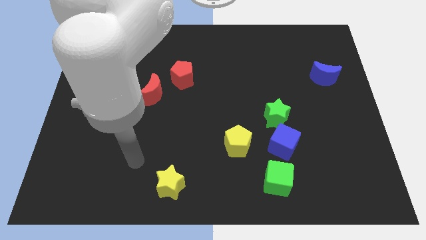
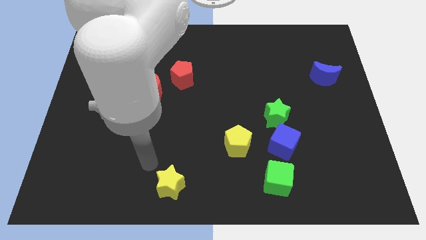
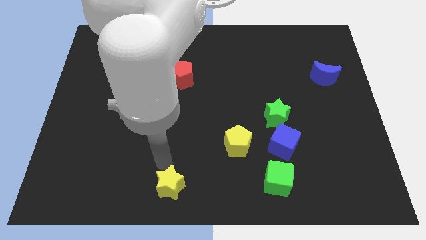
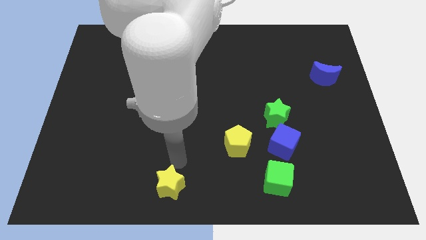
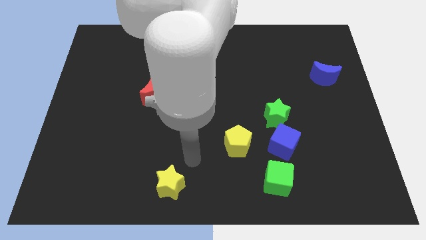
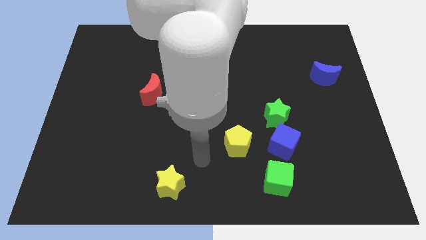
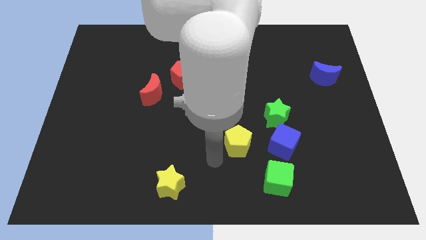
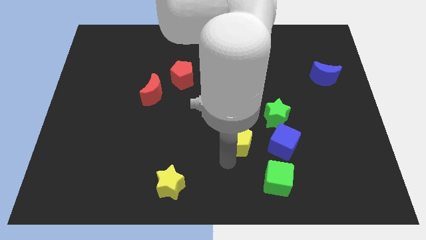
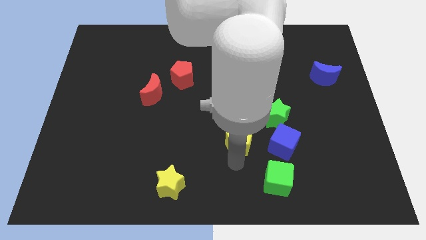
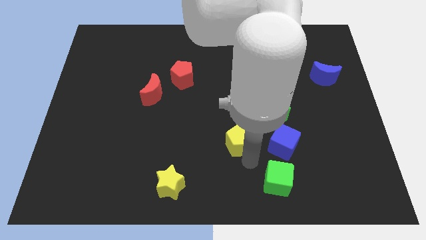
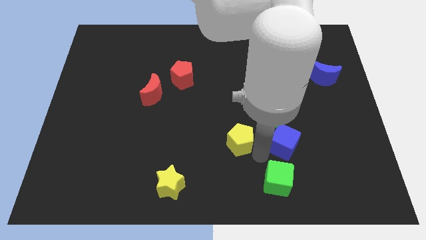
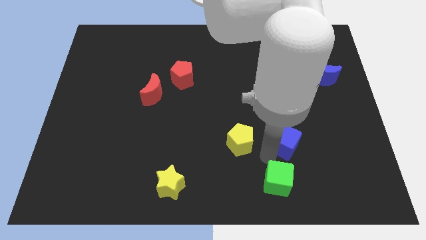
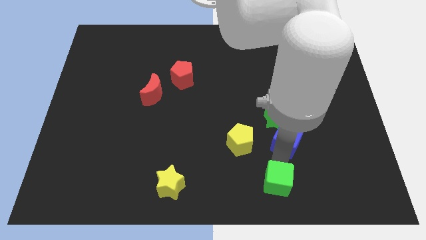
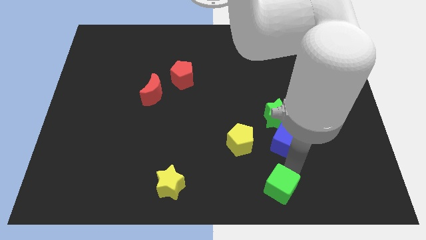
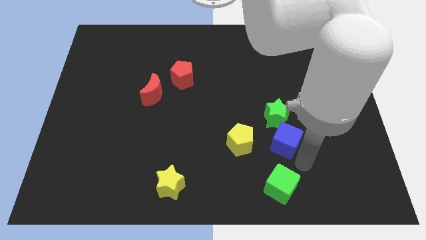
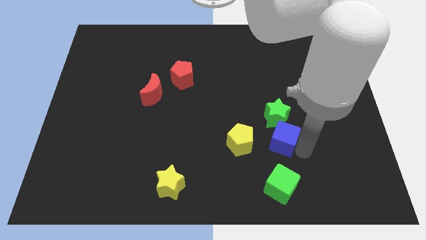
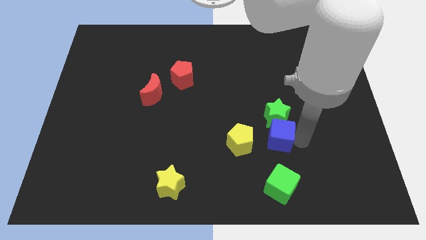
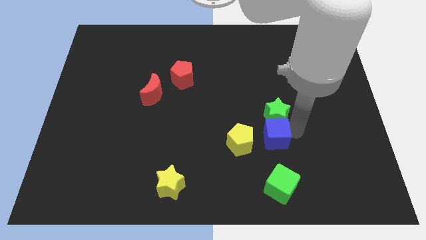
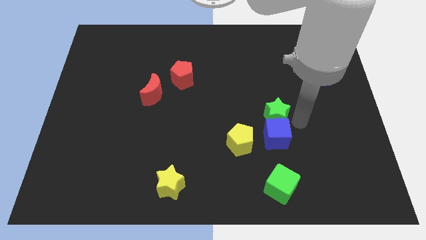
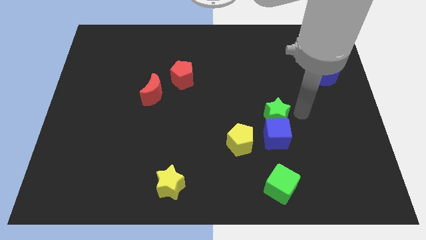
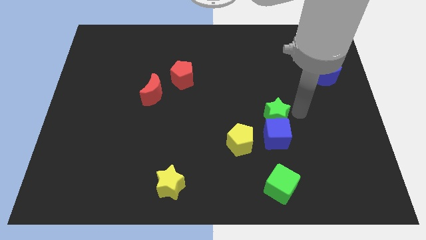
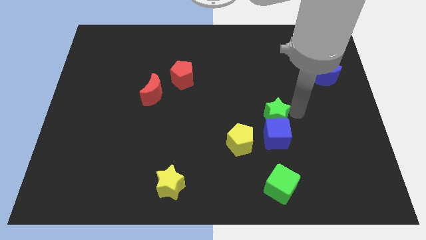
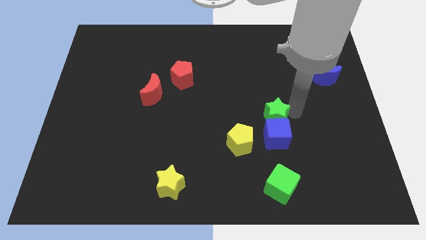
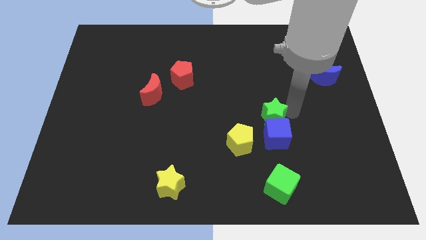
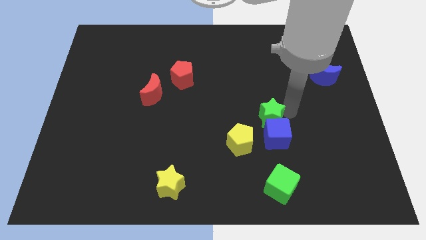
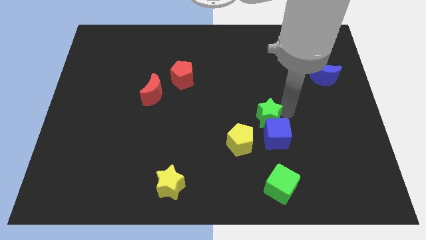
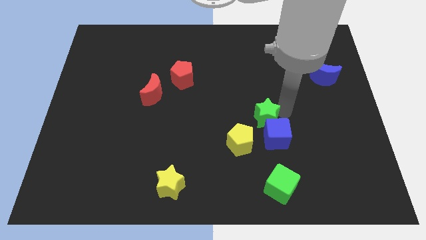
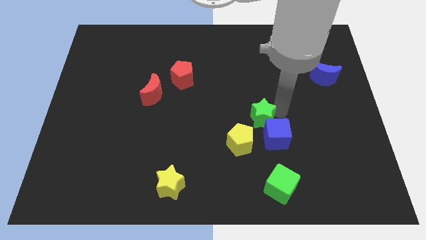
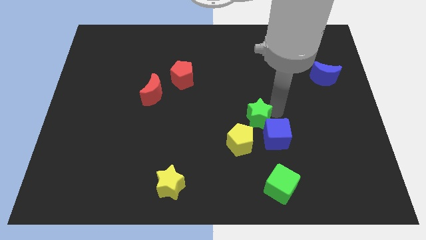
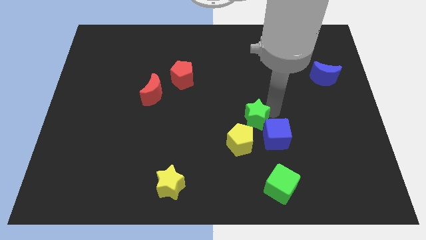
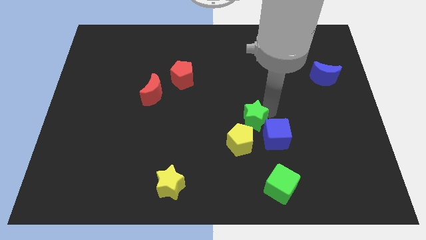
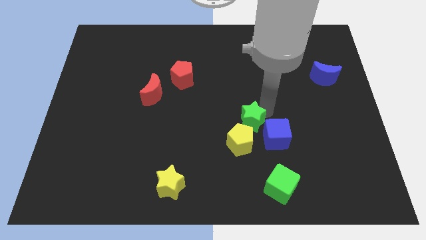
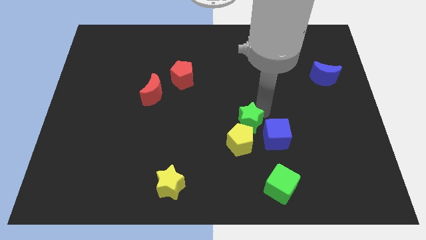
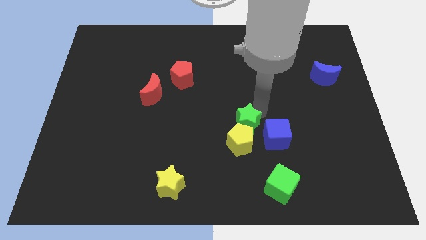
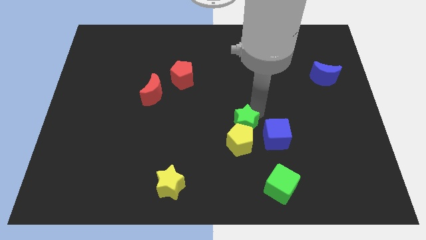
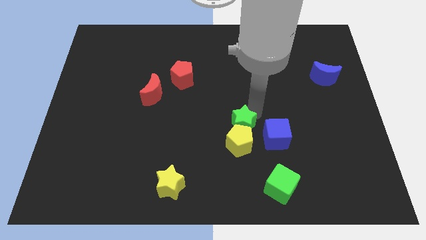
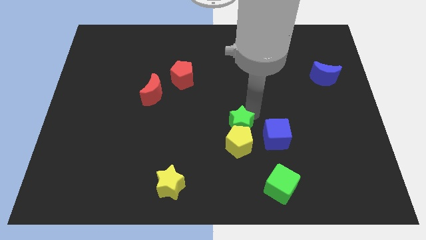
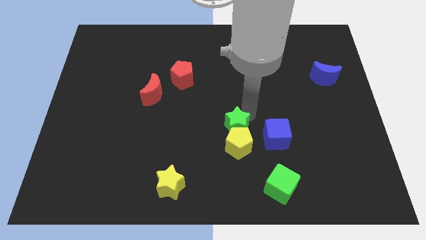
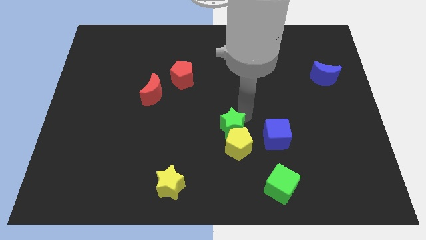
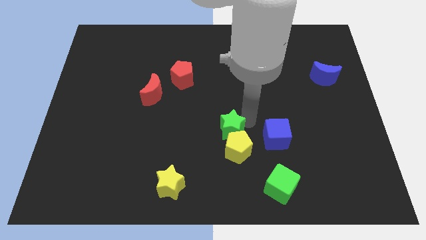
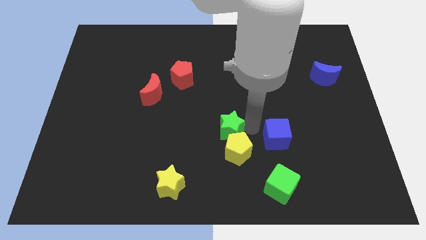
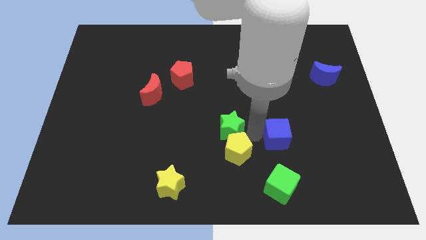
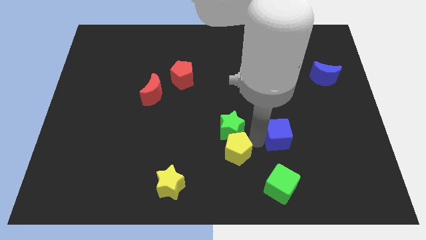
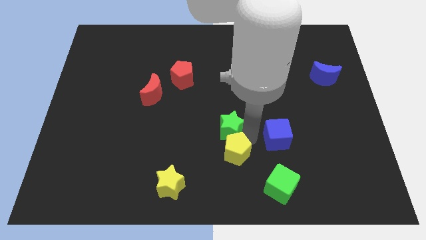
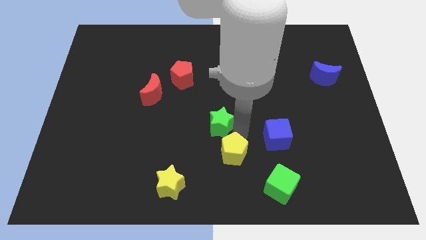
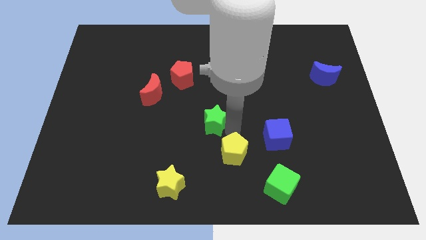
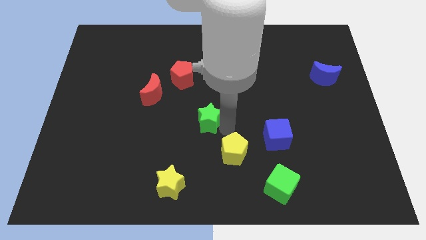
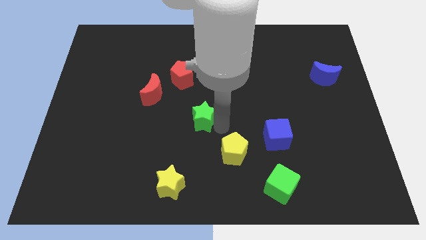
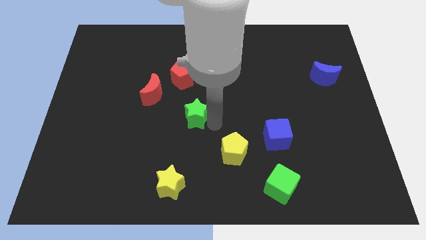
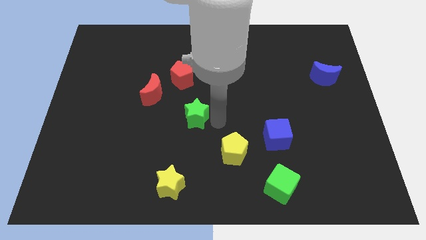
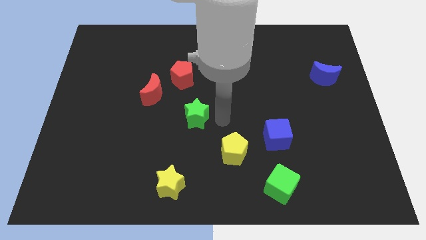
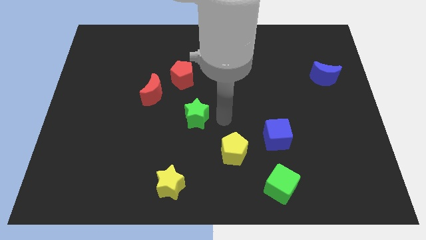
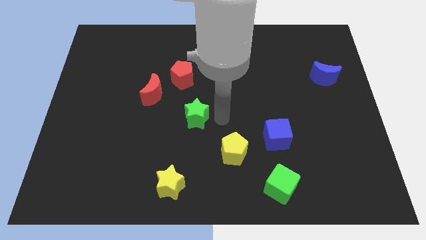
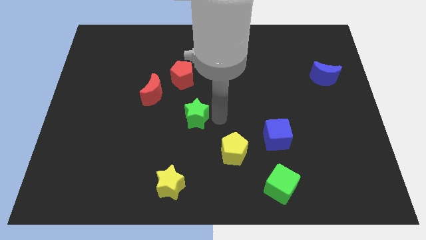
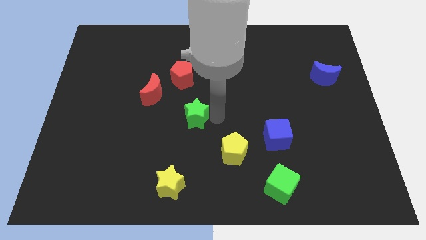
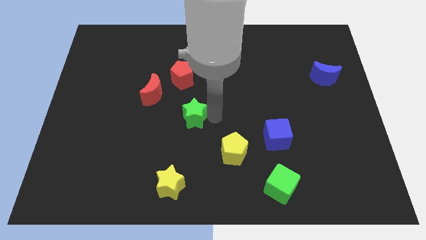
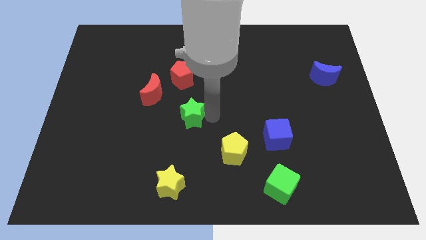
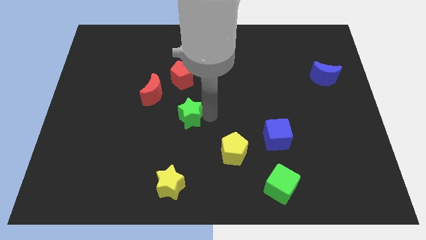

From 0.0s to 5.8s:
push the green star left

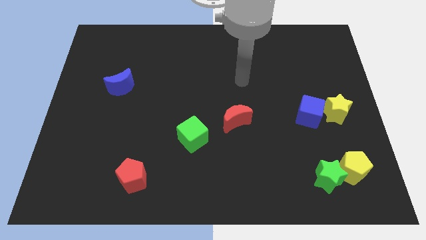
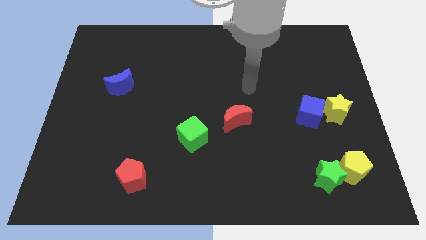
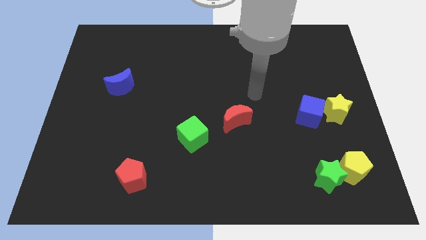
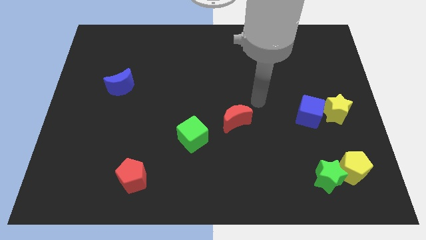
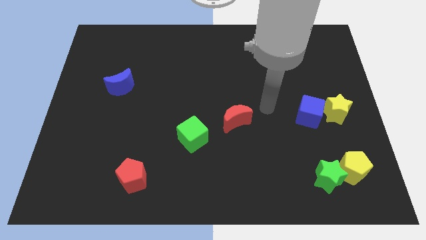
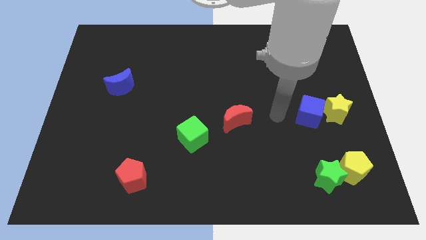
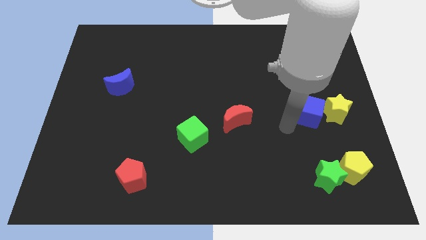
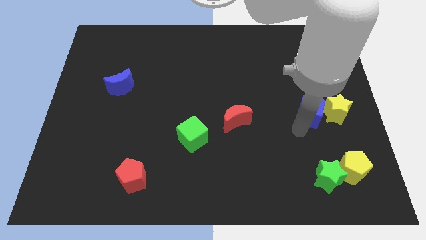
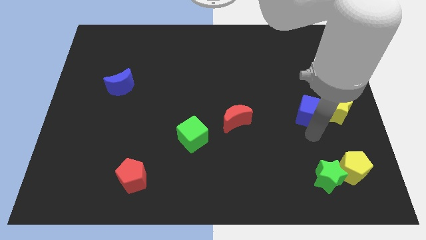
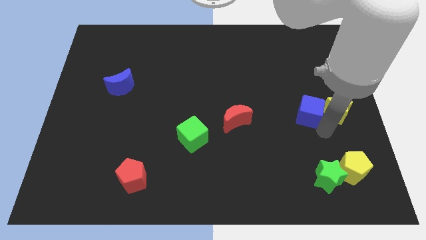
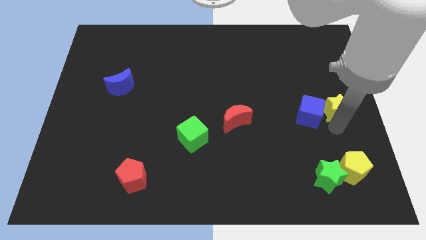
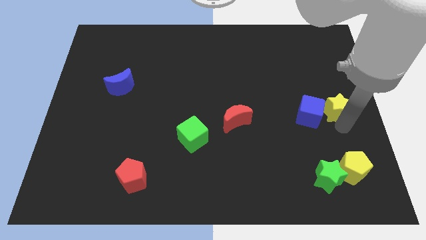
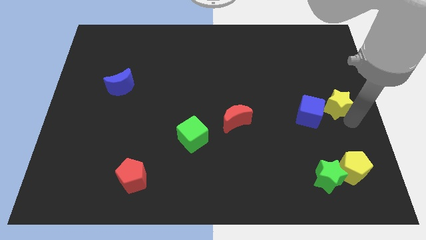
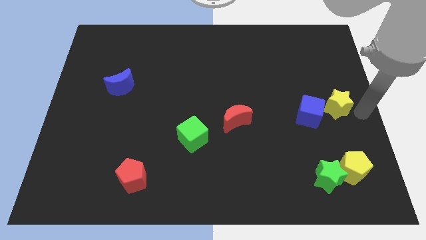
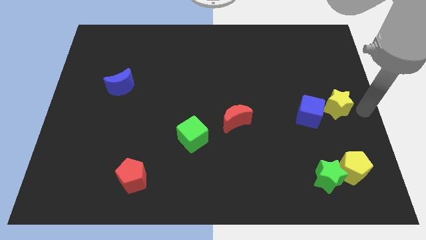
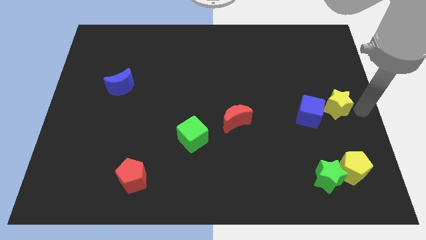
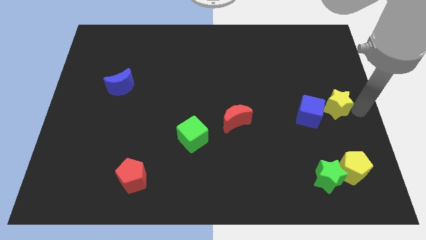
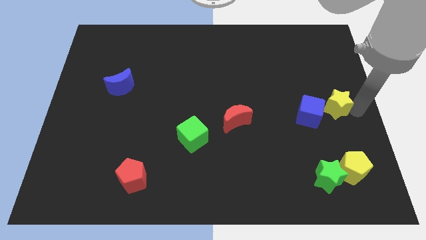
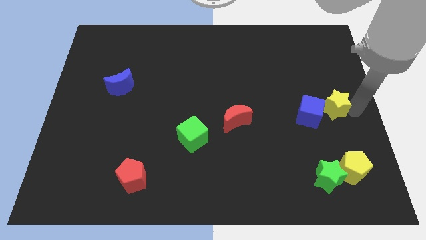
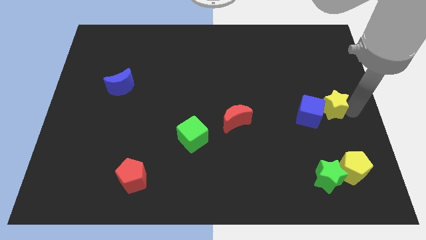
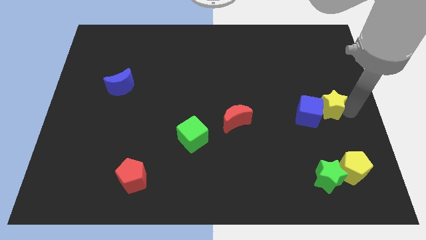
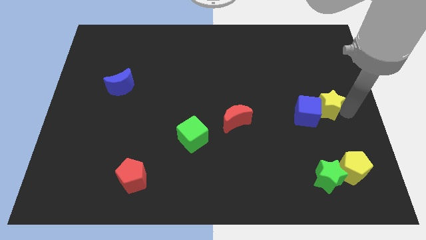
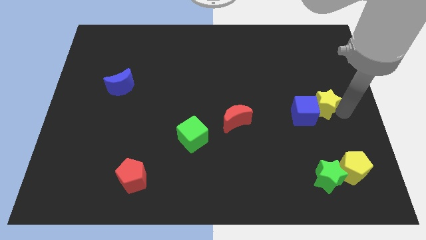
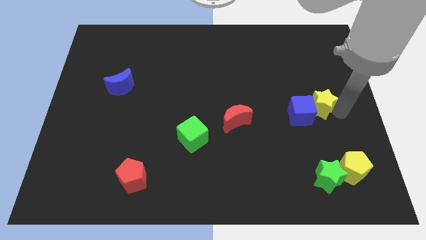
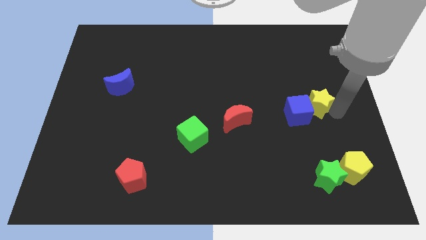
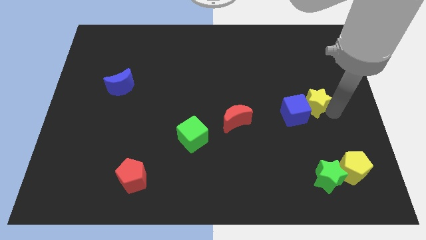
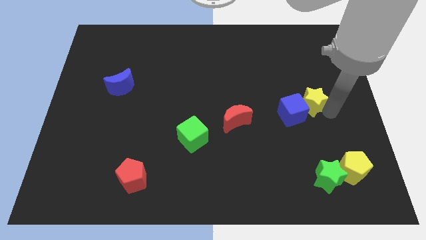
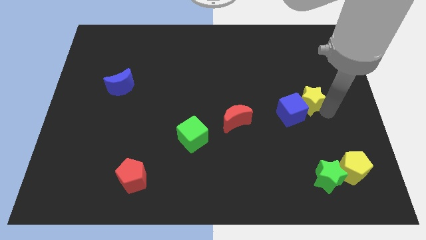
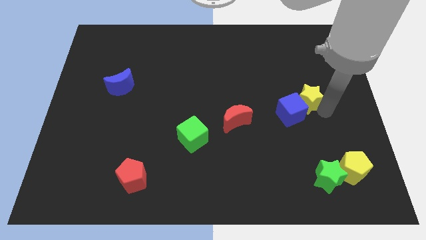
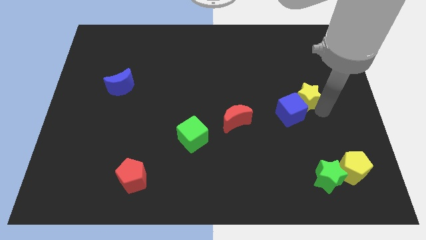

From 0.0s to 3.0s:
slightly push the yellow star upwards and left diagonally
